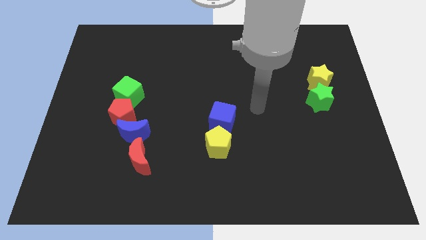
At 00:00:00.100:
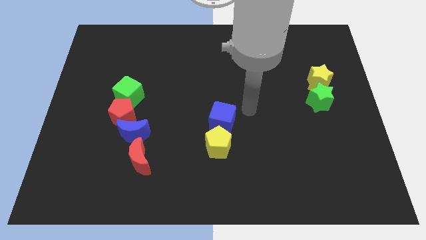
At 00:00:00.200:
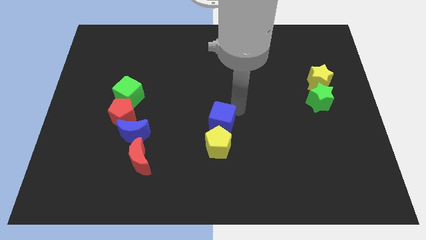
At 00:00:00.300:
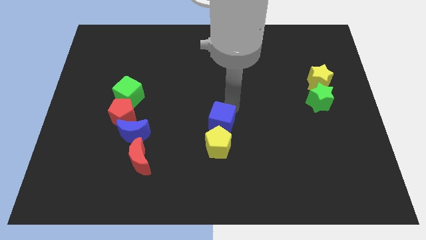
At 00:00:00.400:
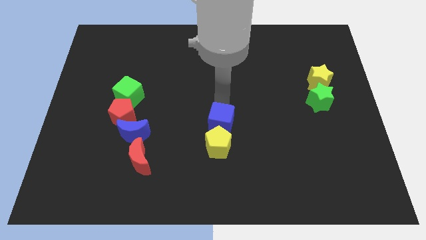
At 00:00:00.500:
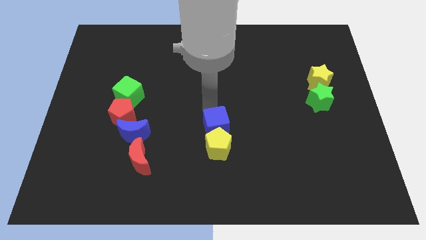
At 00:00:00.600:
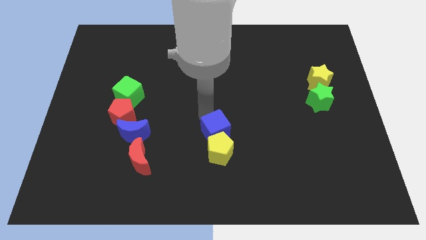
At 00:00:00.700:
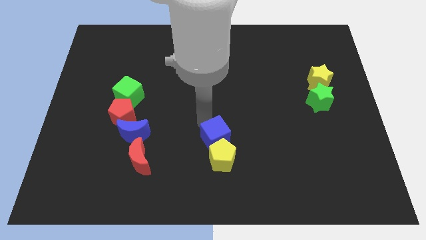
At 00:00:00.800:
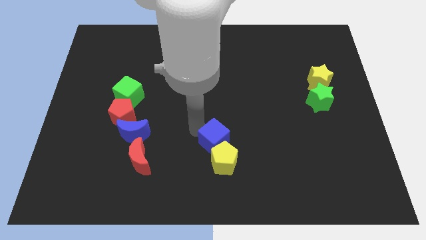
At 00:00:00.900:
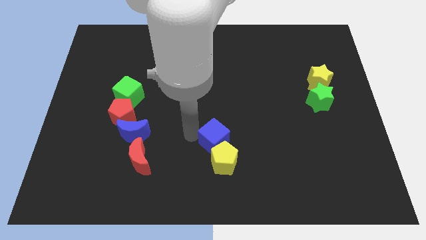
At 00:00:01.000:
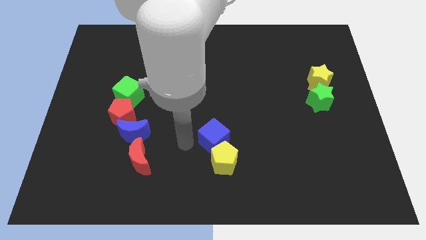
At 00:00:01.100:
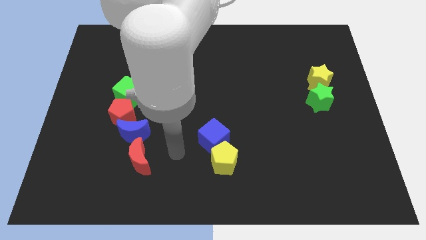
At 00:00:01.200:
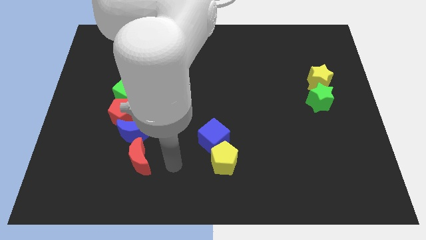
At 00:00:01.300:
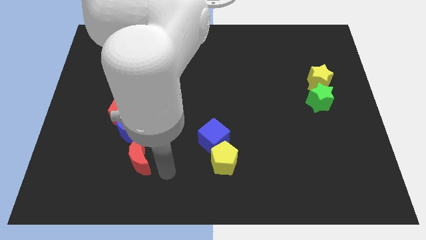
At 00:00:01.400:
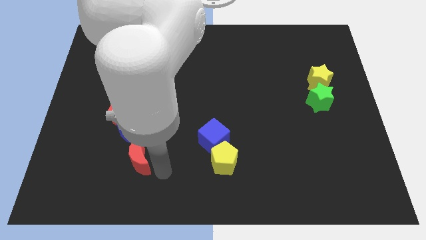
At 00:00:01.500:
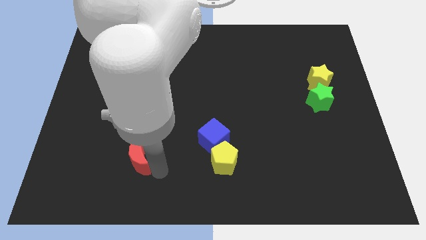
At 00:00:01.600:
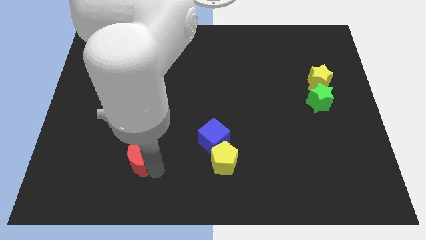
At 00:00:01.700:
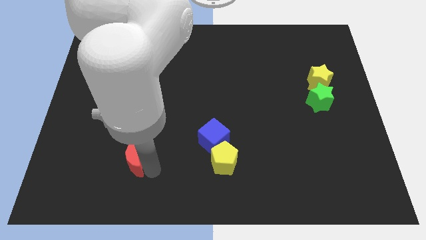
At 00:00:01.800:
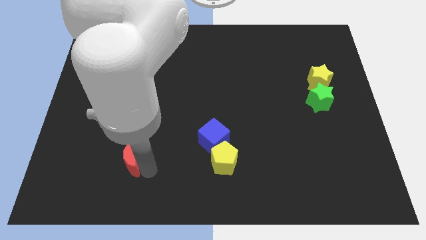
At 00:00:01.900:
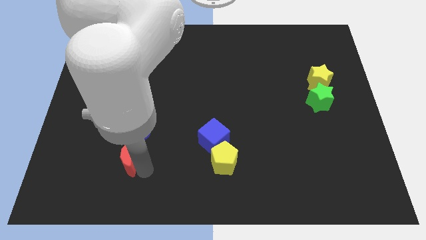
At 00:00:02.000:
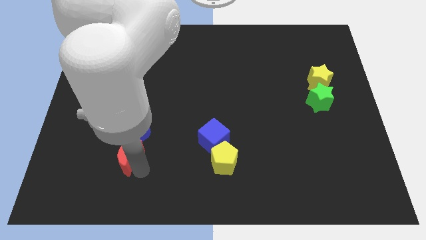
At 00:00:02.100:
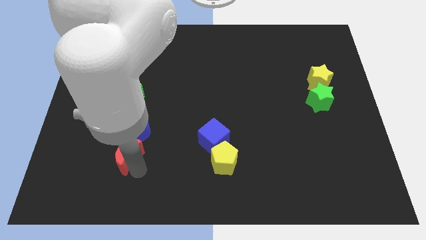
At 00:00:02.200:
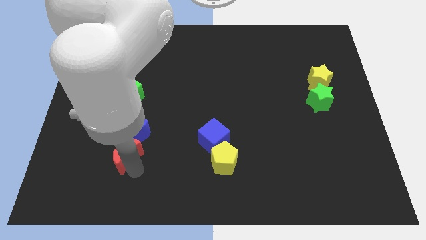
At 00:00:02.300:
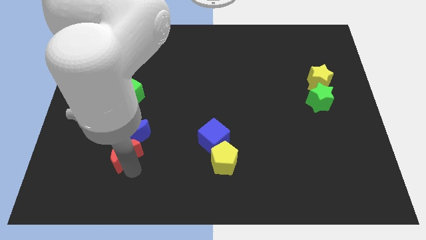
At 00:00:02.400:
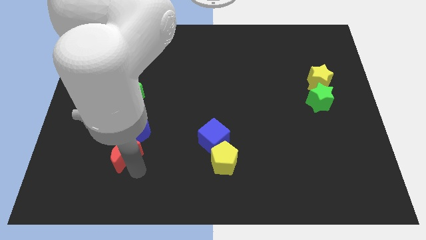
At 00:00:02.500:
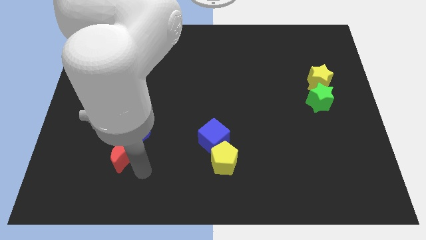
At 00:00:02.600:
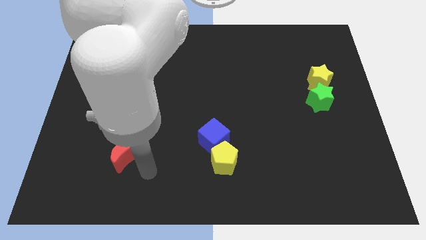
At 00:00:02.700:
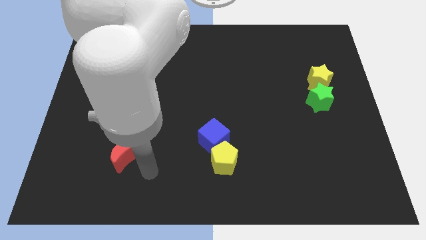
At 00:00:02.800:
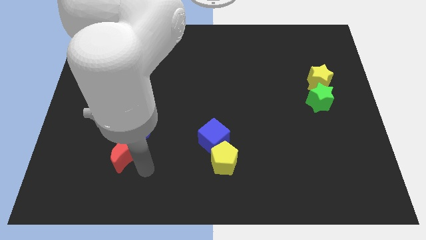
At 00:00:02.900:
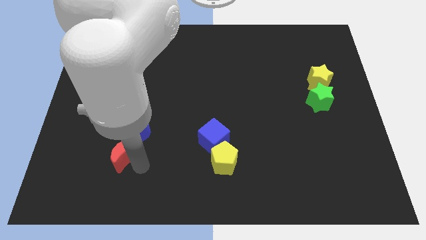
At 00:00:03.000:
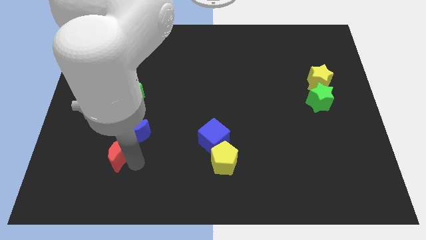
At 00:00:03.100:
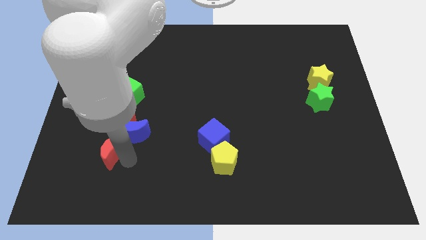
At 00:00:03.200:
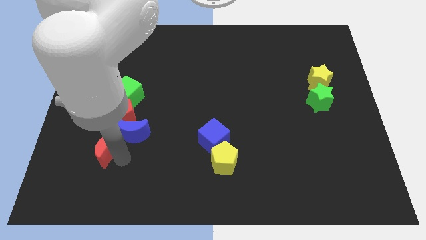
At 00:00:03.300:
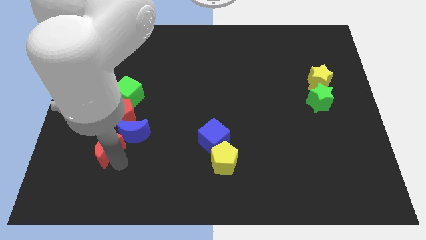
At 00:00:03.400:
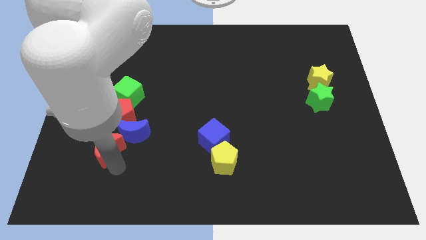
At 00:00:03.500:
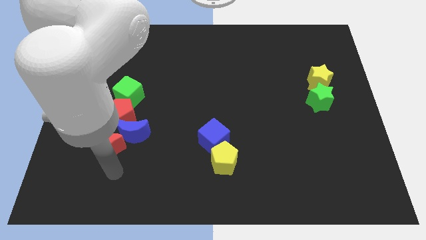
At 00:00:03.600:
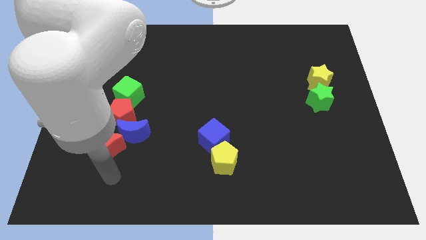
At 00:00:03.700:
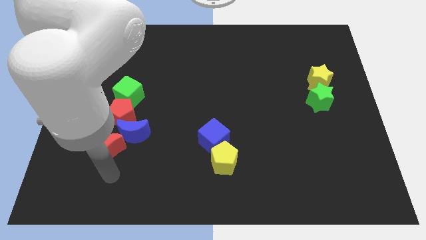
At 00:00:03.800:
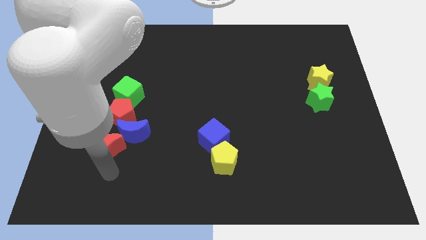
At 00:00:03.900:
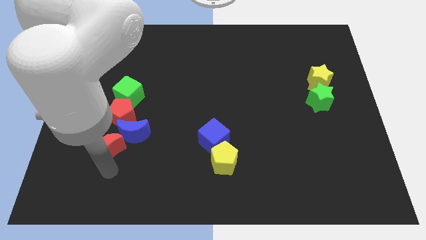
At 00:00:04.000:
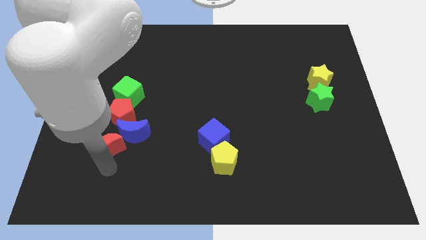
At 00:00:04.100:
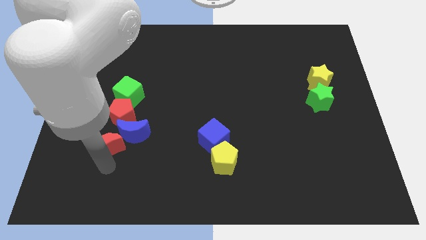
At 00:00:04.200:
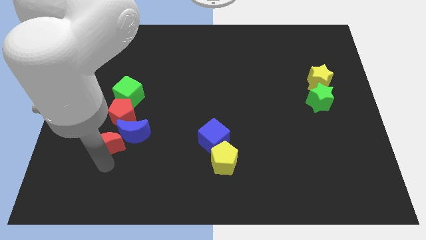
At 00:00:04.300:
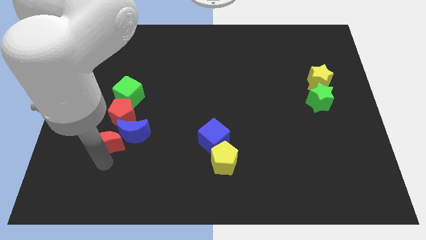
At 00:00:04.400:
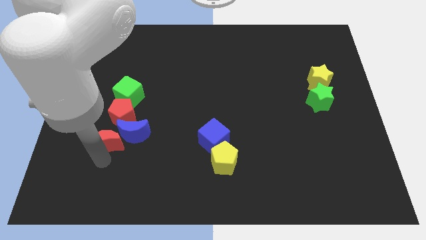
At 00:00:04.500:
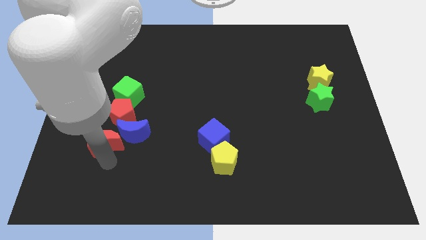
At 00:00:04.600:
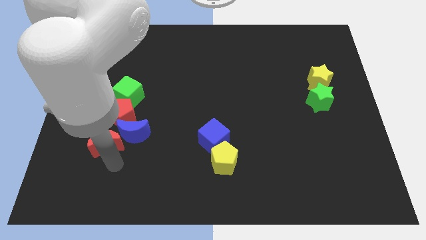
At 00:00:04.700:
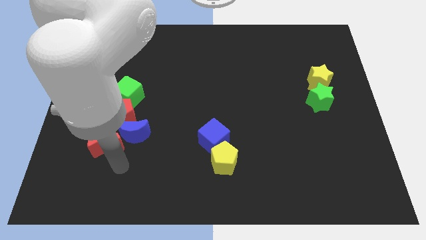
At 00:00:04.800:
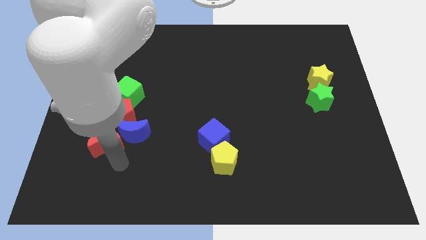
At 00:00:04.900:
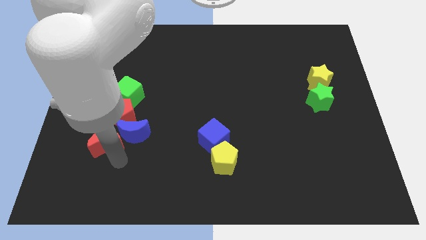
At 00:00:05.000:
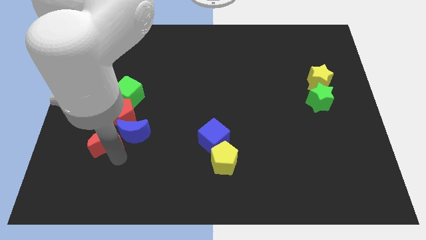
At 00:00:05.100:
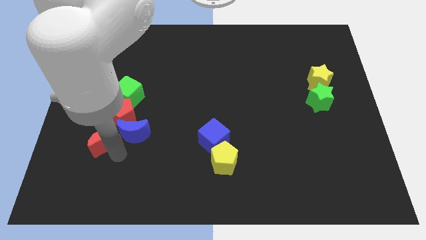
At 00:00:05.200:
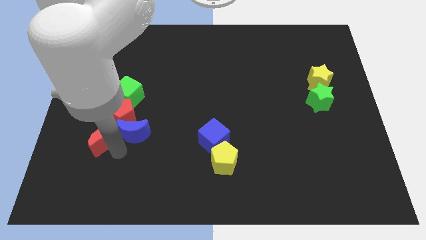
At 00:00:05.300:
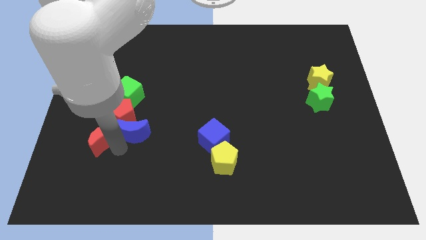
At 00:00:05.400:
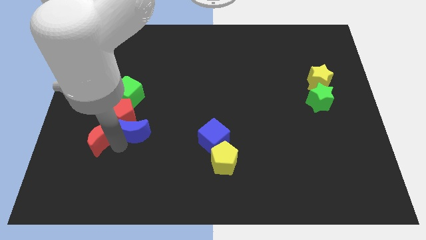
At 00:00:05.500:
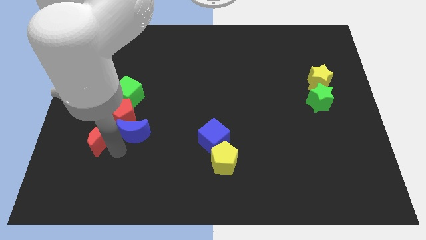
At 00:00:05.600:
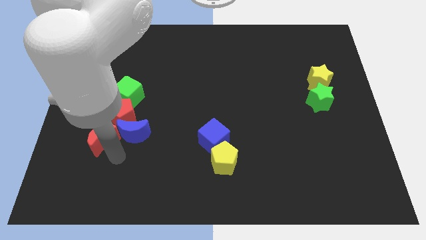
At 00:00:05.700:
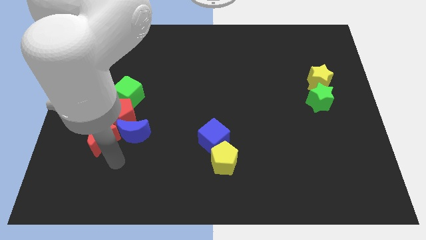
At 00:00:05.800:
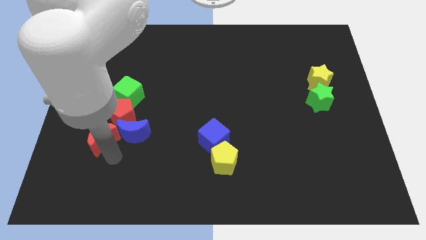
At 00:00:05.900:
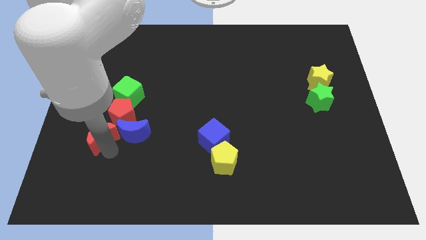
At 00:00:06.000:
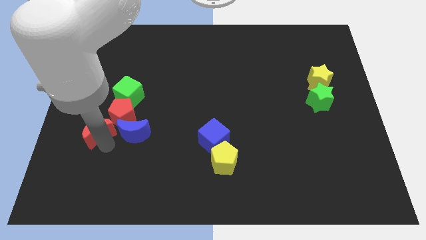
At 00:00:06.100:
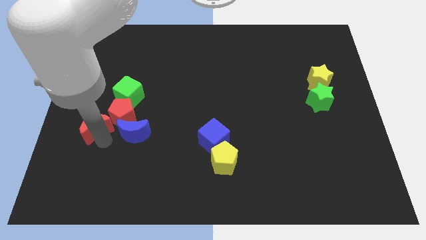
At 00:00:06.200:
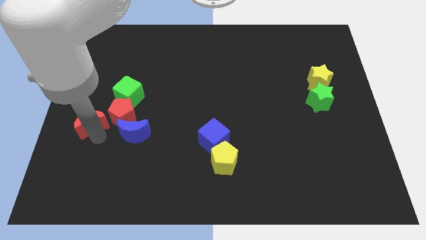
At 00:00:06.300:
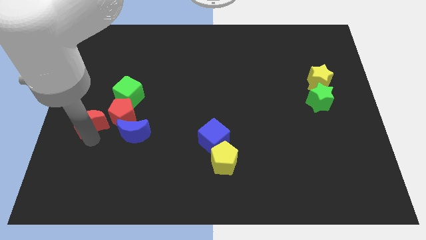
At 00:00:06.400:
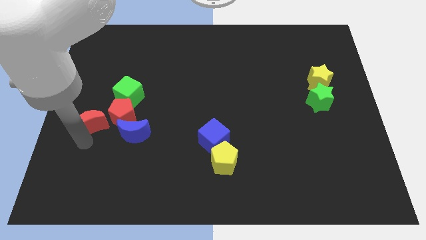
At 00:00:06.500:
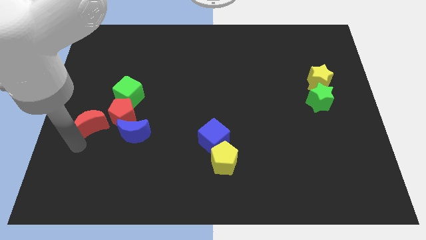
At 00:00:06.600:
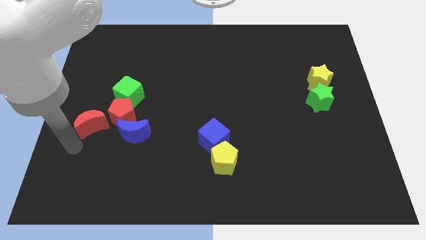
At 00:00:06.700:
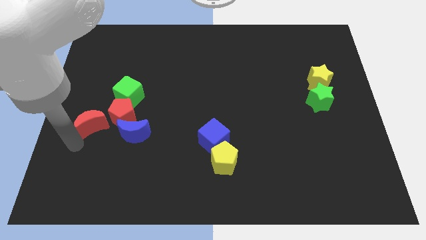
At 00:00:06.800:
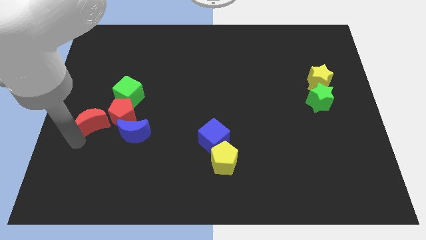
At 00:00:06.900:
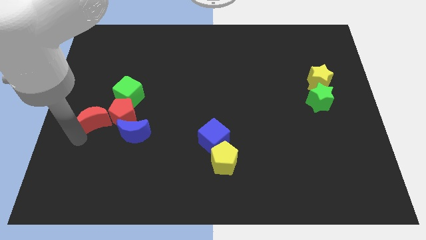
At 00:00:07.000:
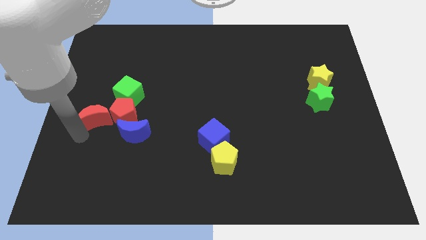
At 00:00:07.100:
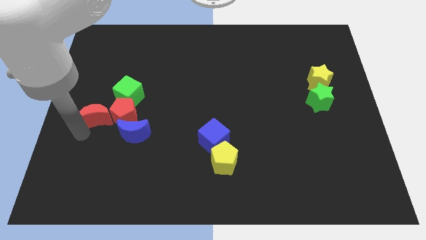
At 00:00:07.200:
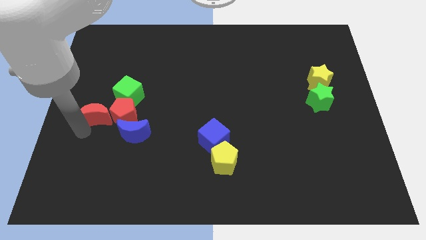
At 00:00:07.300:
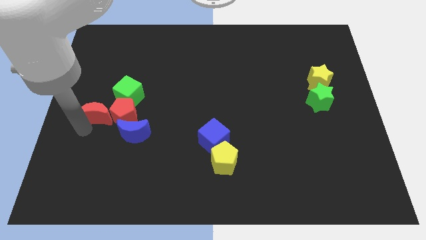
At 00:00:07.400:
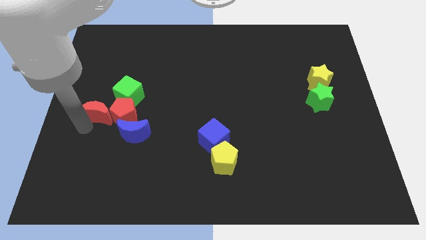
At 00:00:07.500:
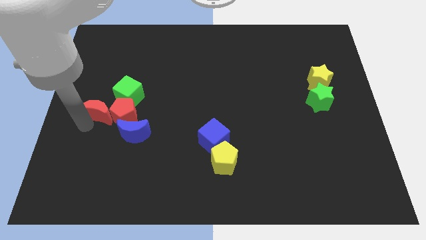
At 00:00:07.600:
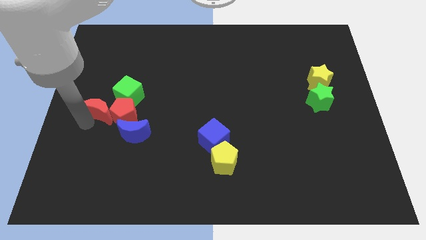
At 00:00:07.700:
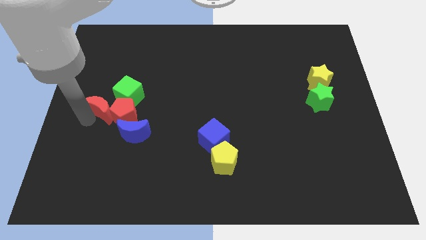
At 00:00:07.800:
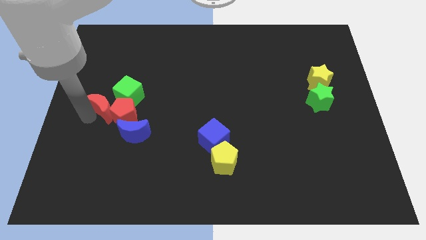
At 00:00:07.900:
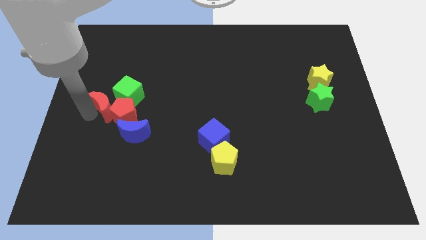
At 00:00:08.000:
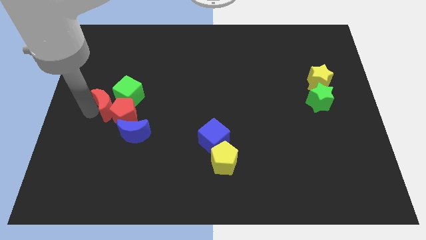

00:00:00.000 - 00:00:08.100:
move the red moon to the green cube
